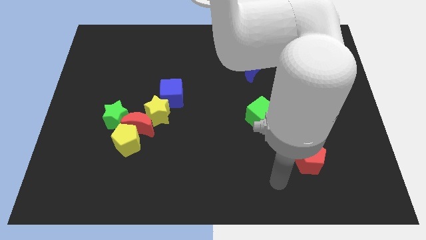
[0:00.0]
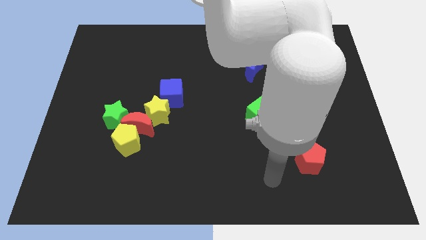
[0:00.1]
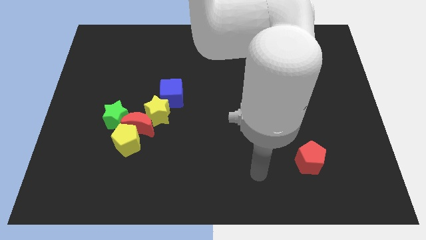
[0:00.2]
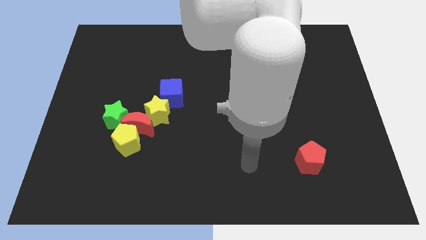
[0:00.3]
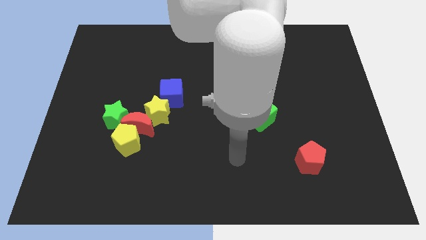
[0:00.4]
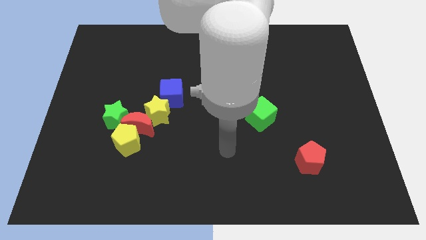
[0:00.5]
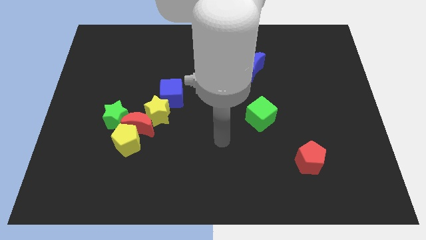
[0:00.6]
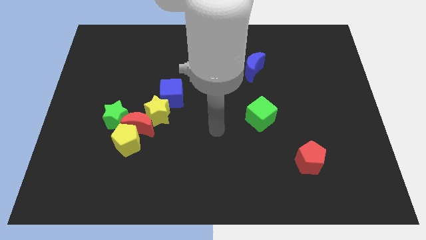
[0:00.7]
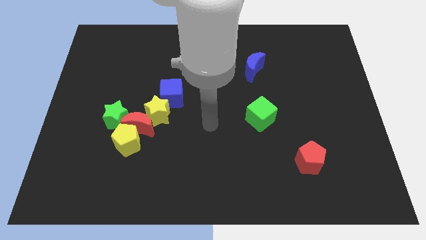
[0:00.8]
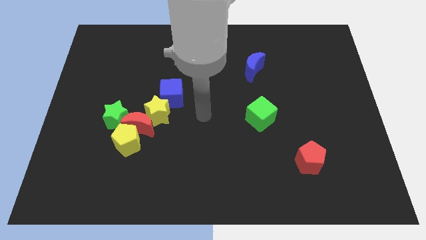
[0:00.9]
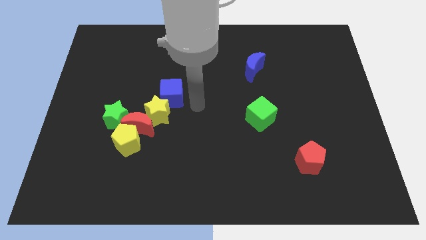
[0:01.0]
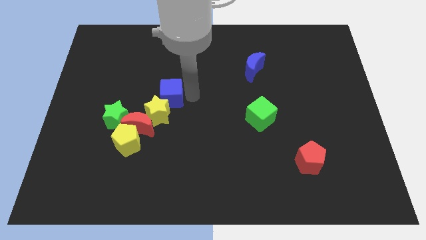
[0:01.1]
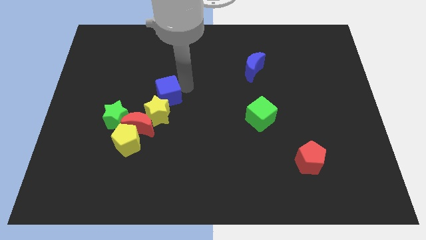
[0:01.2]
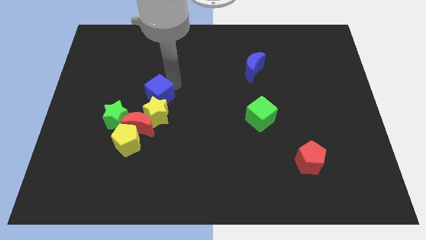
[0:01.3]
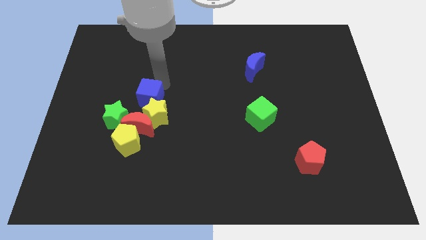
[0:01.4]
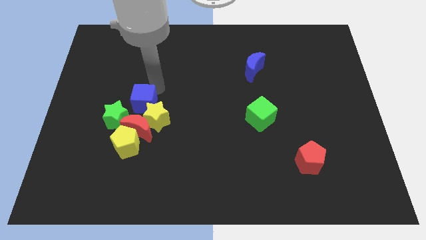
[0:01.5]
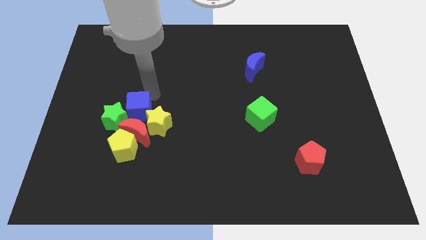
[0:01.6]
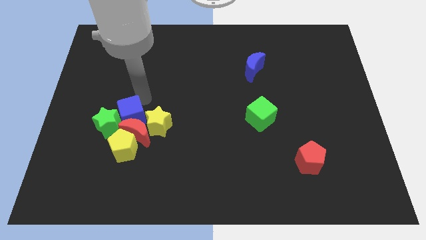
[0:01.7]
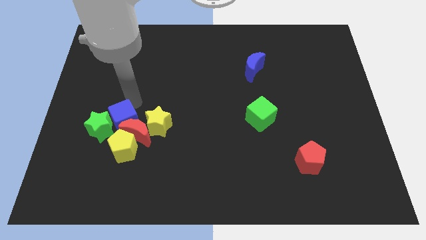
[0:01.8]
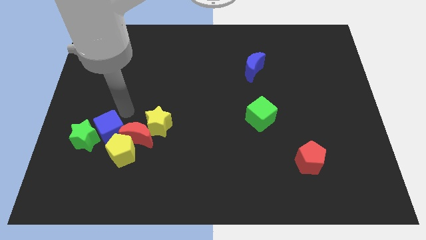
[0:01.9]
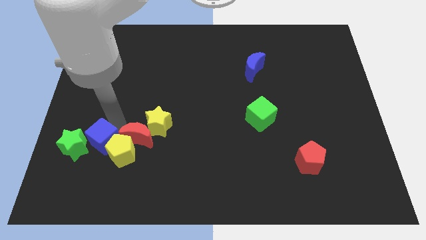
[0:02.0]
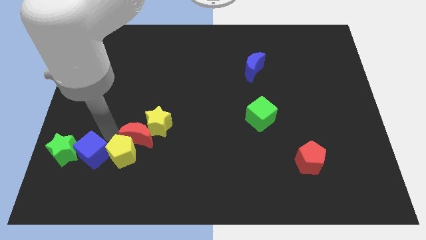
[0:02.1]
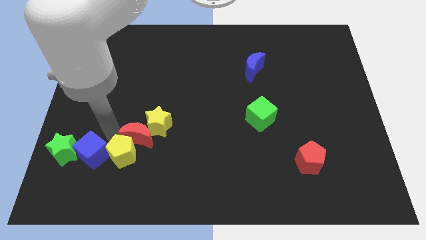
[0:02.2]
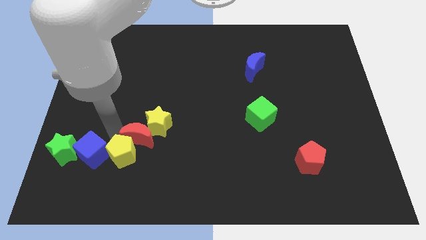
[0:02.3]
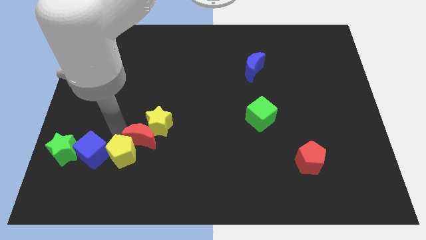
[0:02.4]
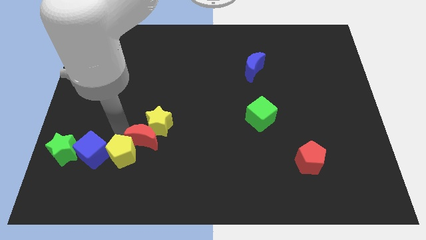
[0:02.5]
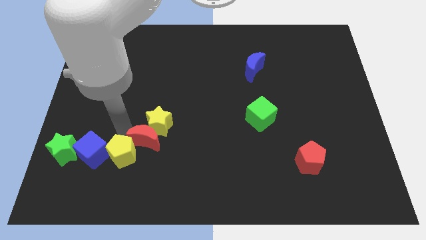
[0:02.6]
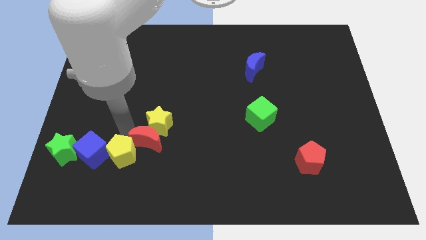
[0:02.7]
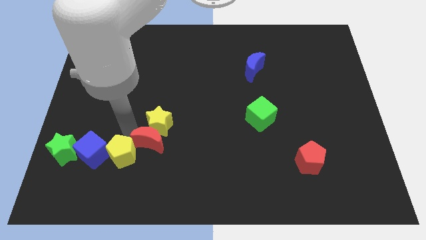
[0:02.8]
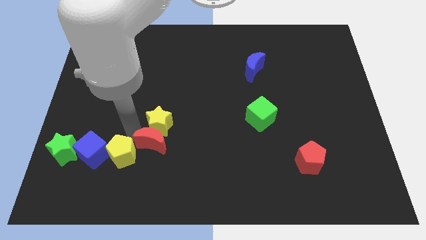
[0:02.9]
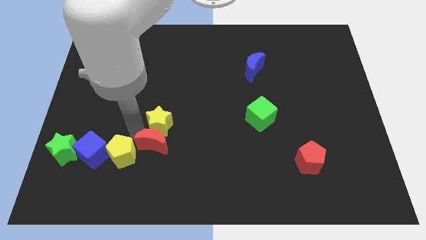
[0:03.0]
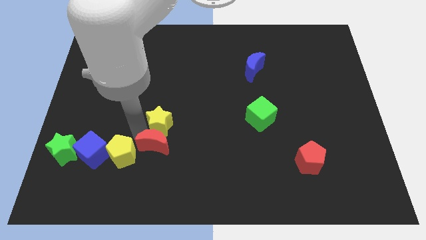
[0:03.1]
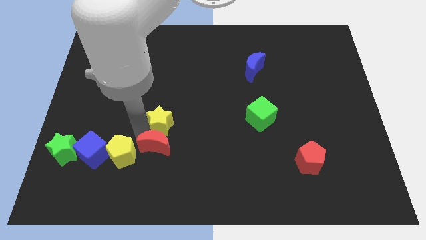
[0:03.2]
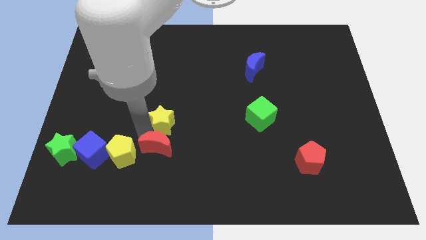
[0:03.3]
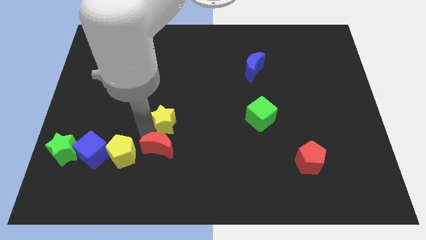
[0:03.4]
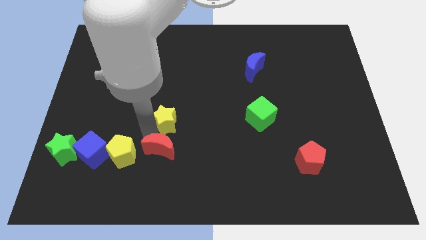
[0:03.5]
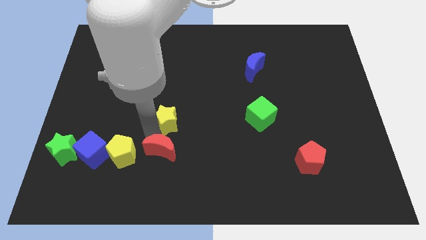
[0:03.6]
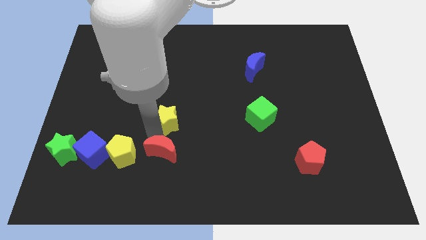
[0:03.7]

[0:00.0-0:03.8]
move the red moon away from the yellow pentagon, green star, and yellow star

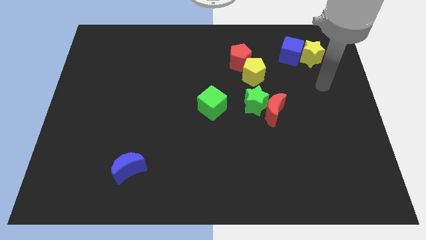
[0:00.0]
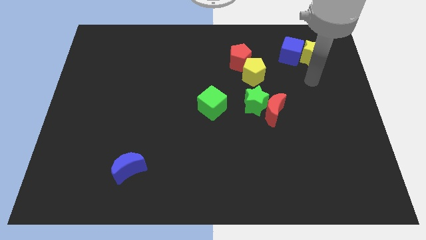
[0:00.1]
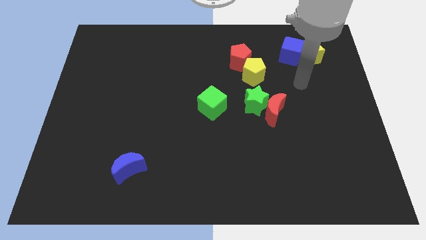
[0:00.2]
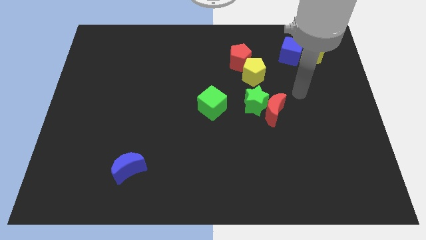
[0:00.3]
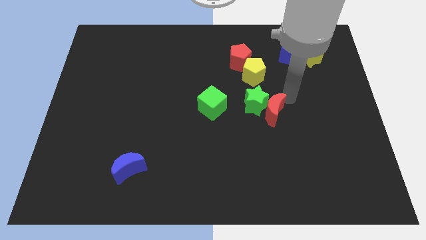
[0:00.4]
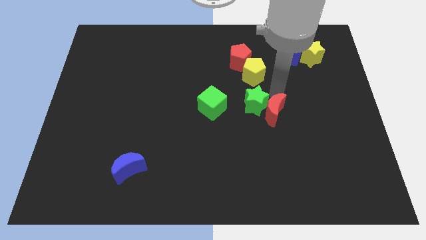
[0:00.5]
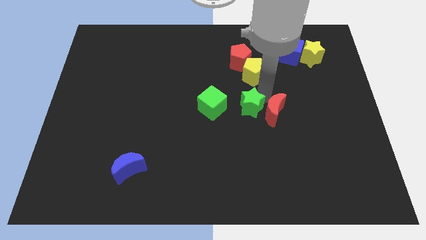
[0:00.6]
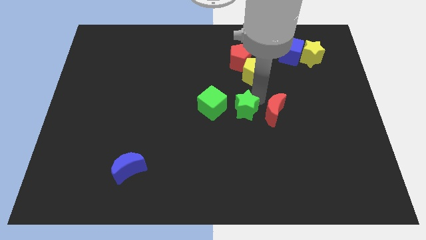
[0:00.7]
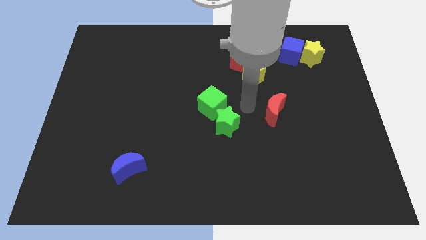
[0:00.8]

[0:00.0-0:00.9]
pull the red moon apart from the green star

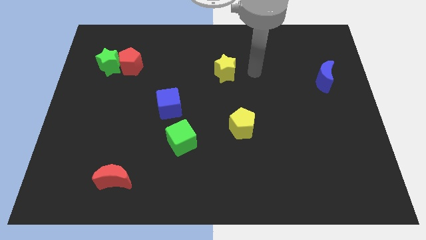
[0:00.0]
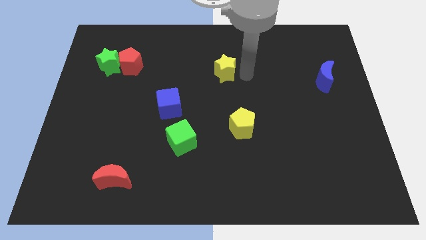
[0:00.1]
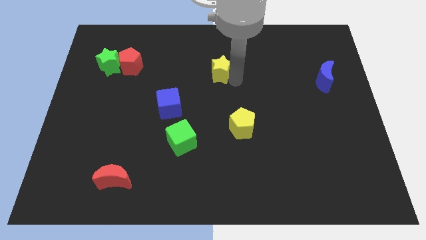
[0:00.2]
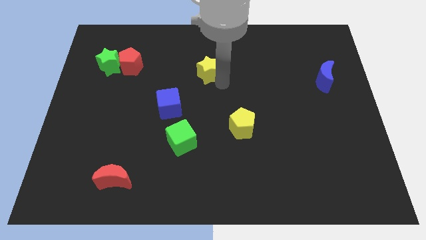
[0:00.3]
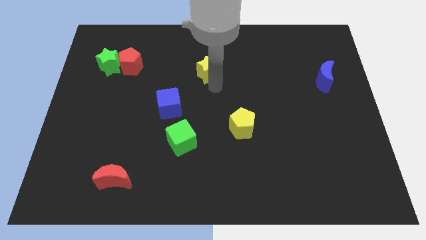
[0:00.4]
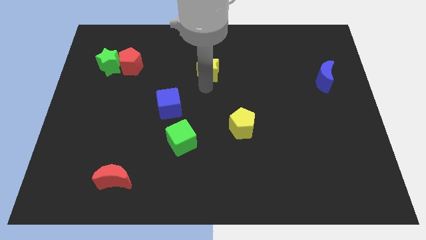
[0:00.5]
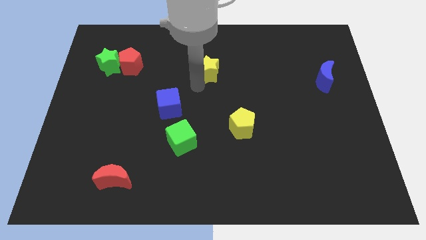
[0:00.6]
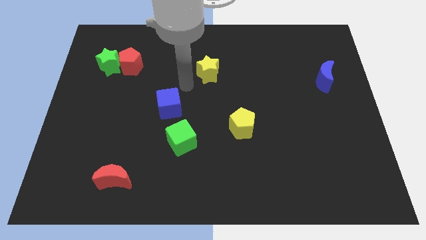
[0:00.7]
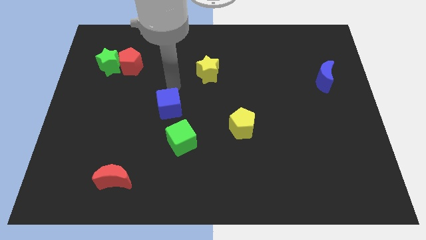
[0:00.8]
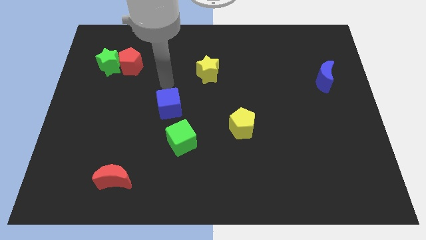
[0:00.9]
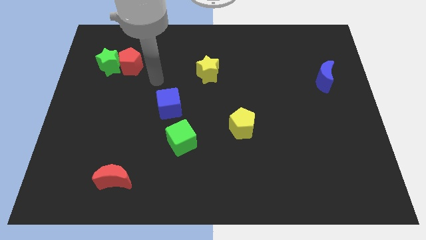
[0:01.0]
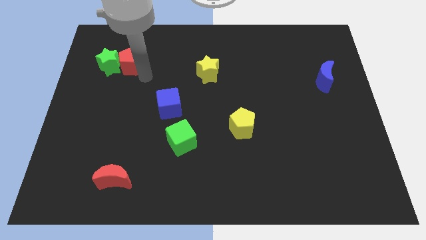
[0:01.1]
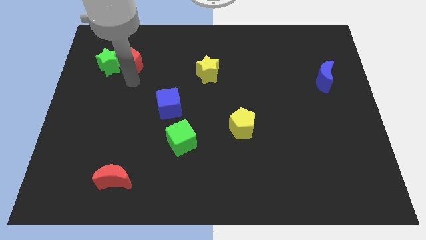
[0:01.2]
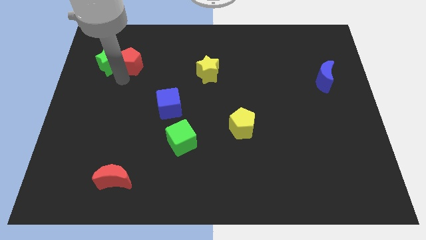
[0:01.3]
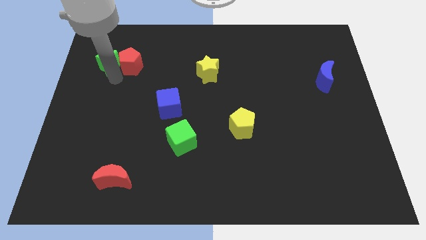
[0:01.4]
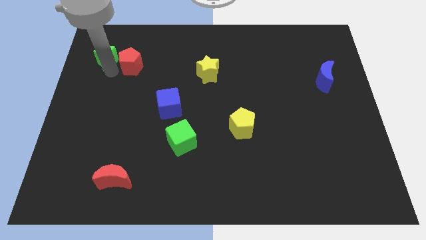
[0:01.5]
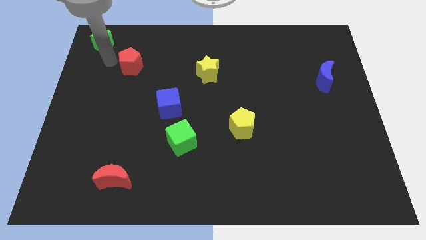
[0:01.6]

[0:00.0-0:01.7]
separate the red pentagon from the green star

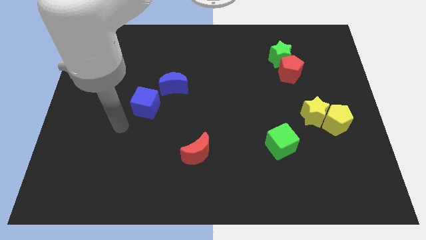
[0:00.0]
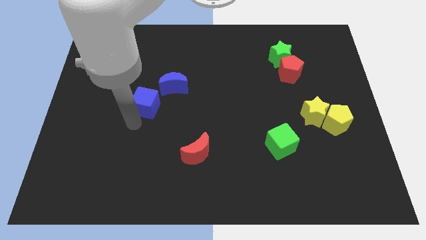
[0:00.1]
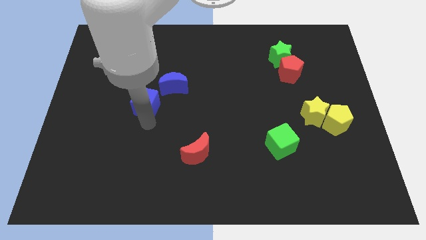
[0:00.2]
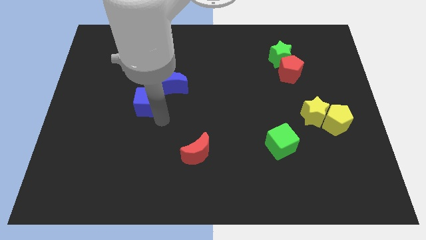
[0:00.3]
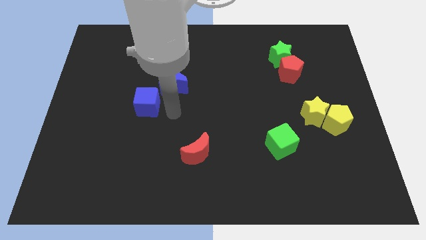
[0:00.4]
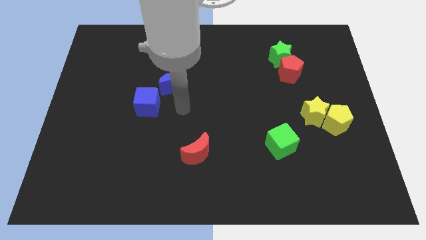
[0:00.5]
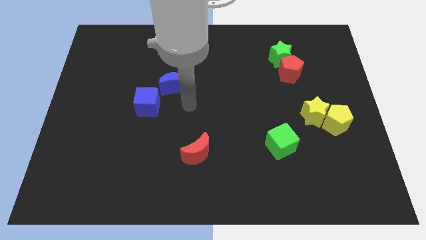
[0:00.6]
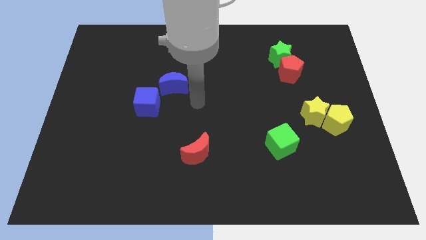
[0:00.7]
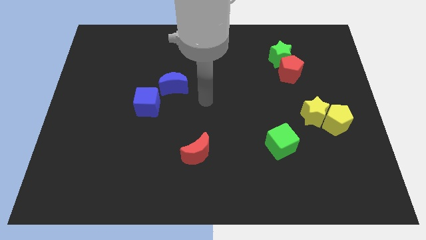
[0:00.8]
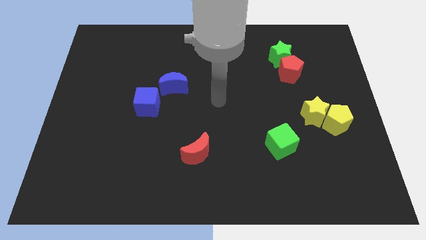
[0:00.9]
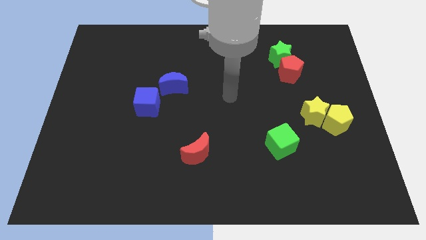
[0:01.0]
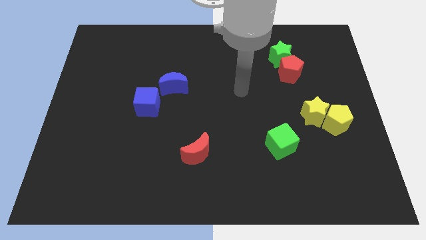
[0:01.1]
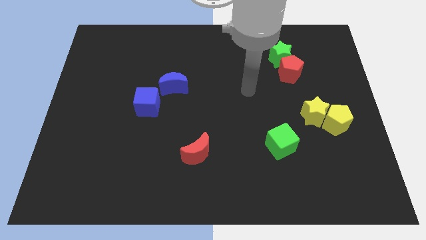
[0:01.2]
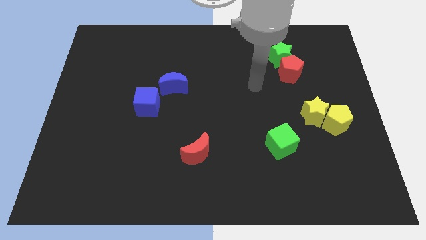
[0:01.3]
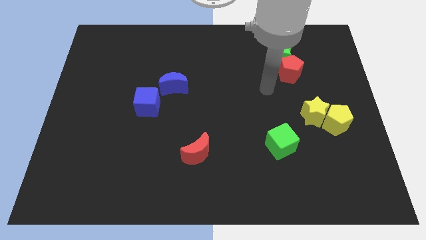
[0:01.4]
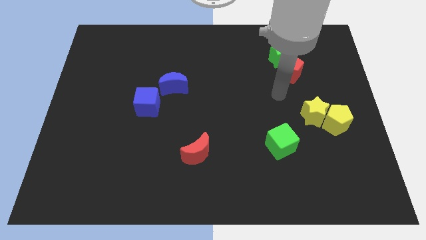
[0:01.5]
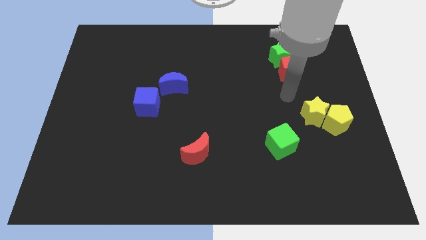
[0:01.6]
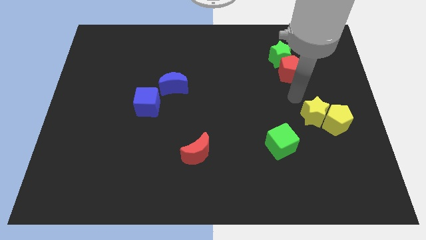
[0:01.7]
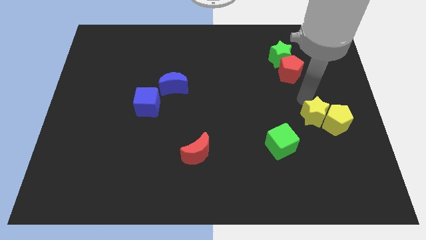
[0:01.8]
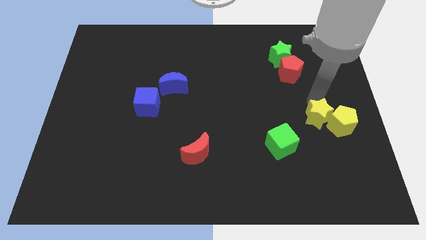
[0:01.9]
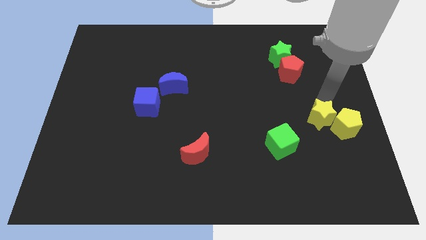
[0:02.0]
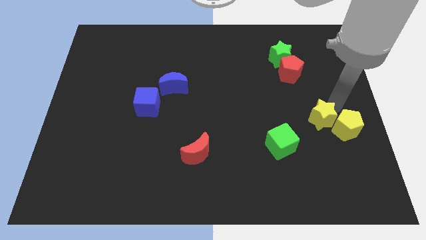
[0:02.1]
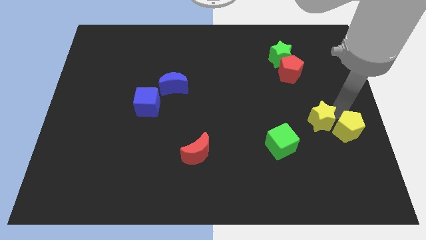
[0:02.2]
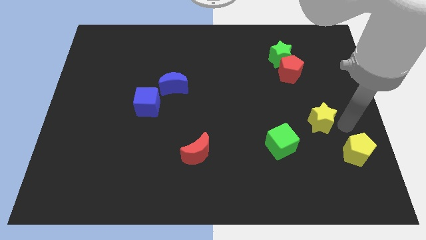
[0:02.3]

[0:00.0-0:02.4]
separate the yellow star from the yellow pentagon

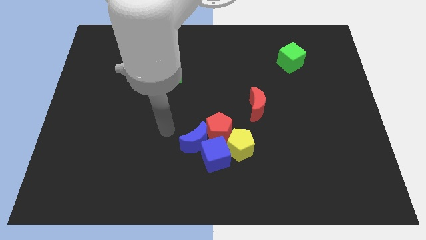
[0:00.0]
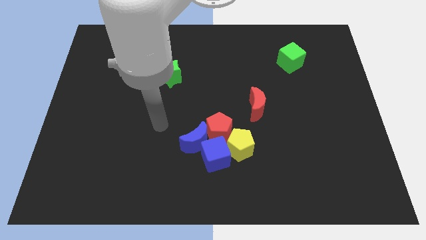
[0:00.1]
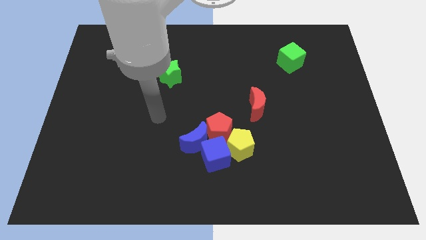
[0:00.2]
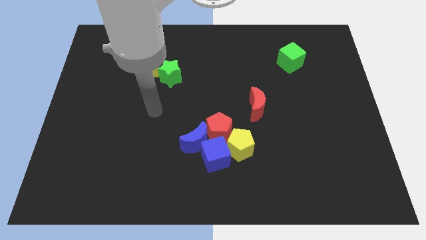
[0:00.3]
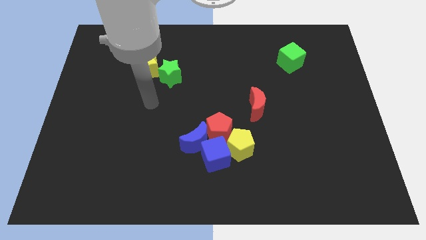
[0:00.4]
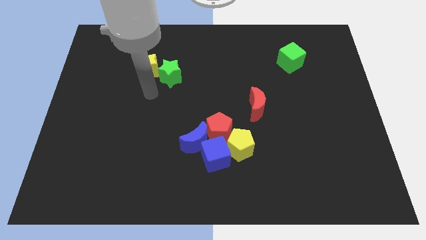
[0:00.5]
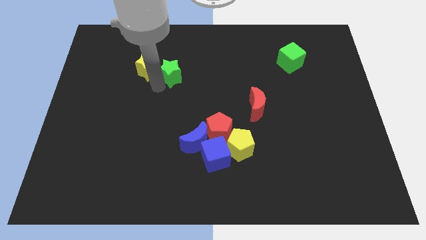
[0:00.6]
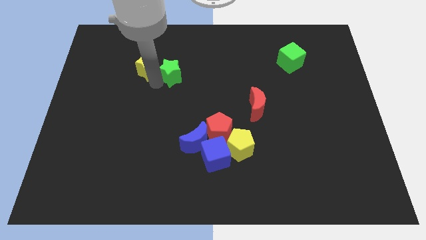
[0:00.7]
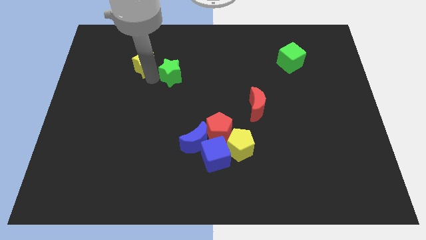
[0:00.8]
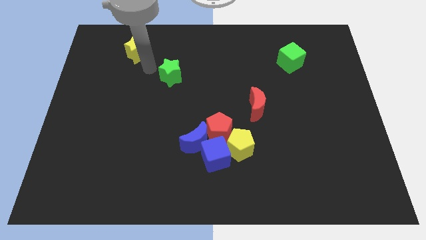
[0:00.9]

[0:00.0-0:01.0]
pull the green star apart from the yellow star
